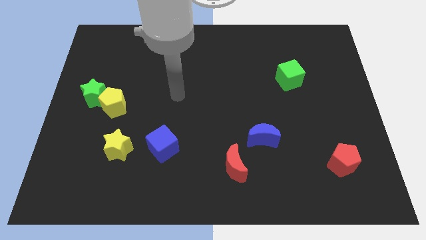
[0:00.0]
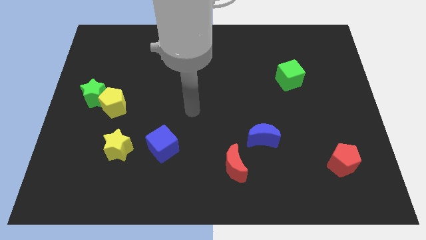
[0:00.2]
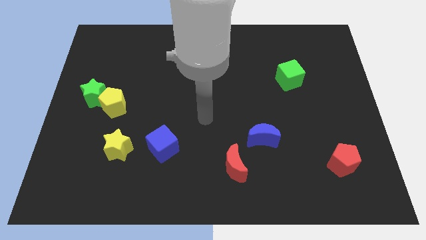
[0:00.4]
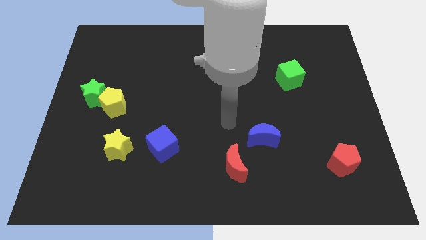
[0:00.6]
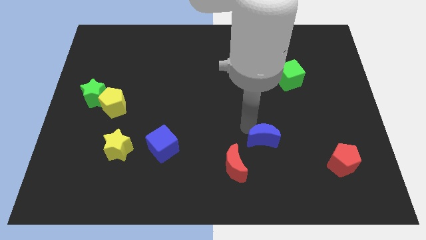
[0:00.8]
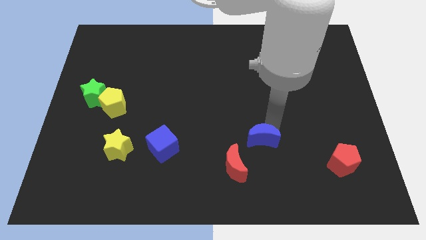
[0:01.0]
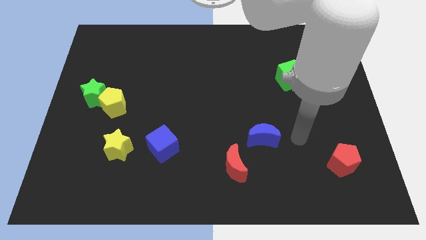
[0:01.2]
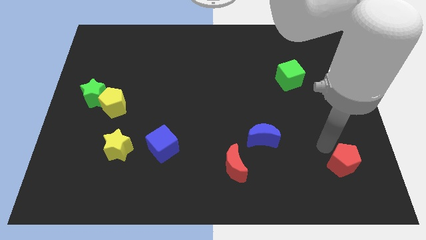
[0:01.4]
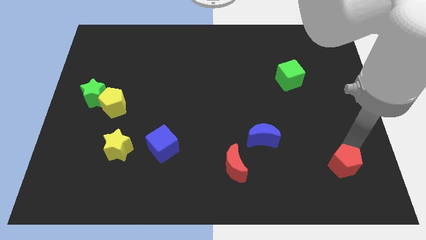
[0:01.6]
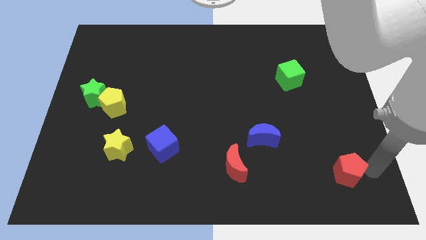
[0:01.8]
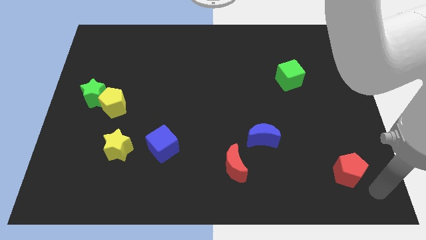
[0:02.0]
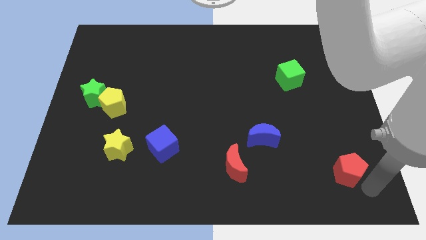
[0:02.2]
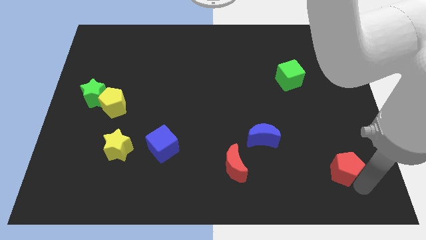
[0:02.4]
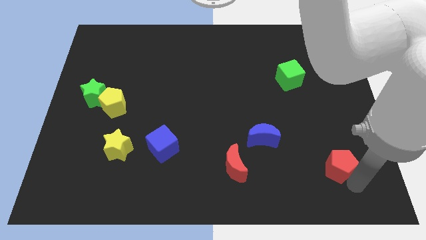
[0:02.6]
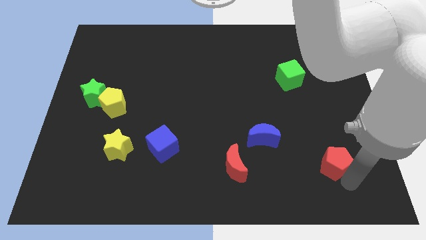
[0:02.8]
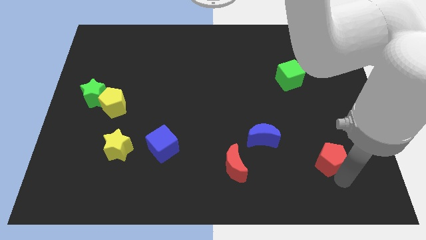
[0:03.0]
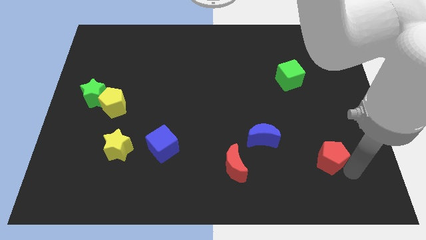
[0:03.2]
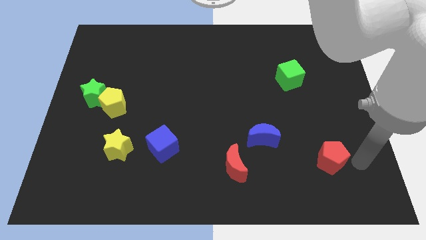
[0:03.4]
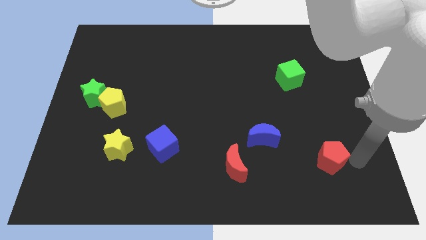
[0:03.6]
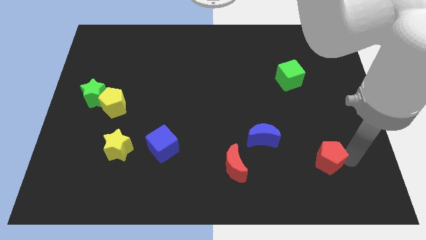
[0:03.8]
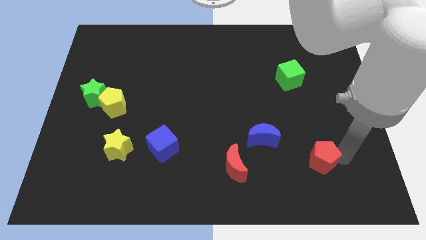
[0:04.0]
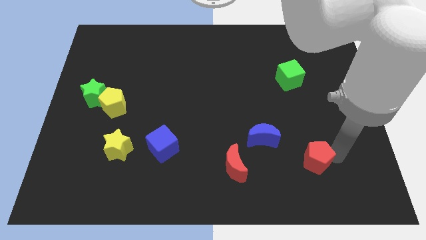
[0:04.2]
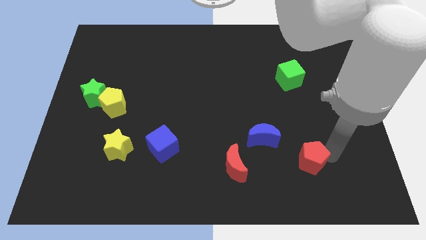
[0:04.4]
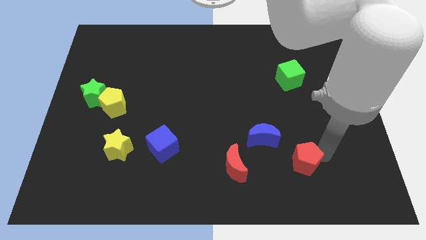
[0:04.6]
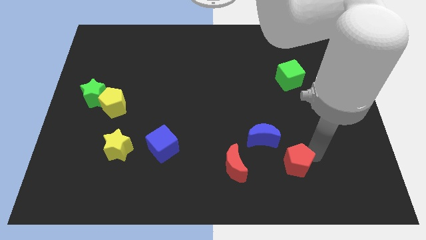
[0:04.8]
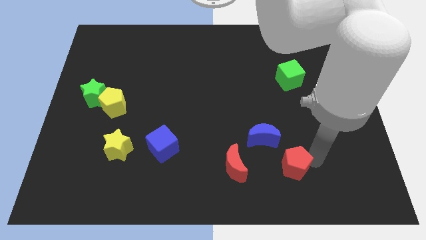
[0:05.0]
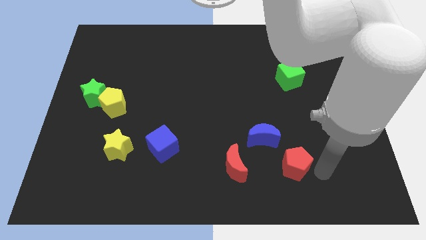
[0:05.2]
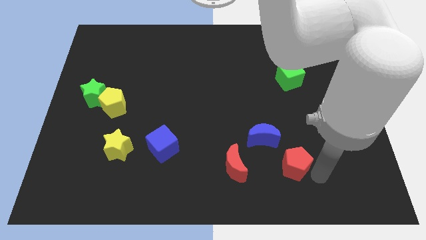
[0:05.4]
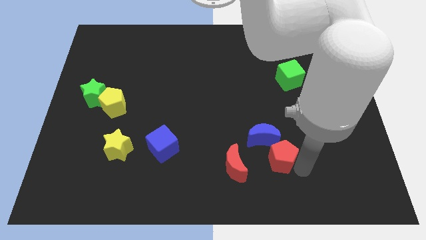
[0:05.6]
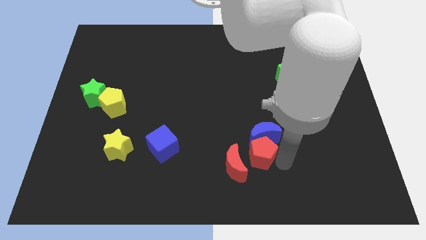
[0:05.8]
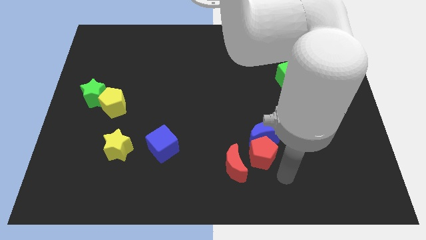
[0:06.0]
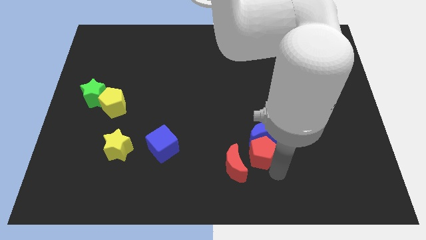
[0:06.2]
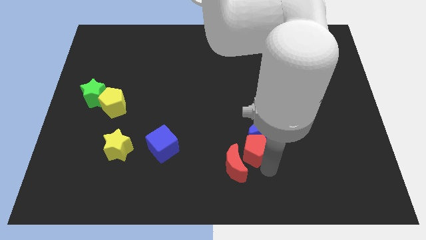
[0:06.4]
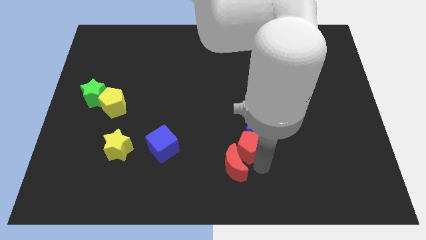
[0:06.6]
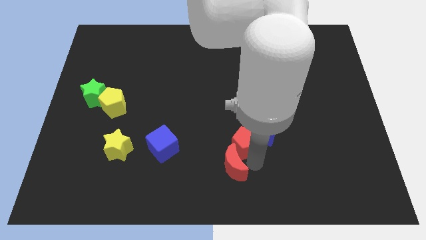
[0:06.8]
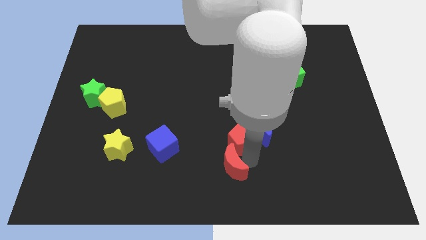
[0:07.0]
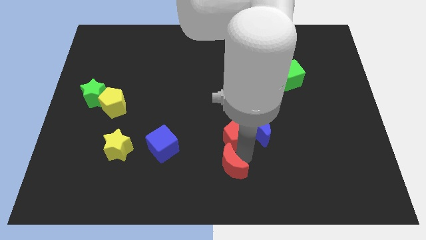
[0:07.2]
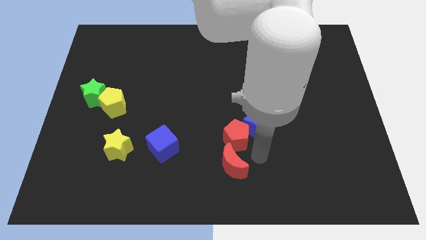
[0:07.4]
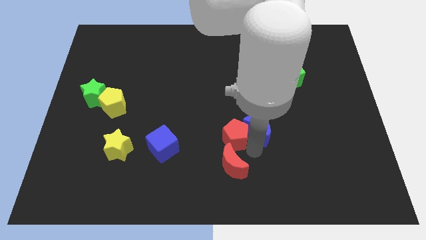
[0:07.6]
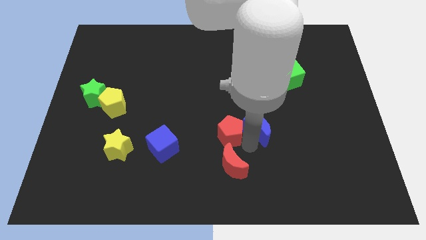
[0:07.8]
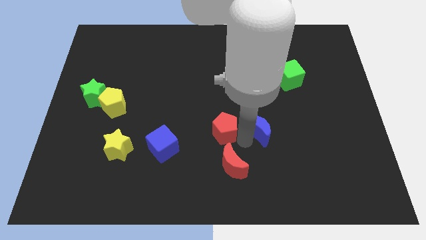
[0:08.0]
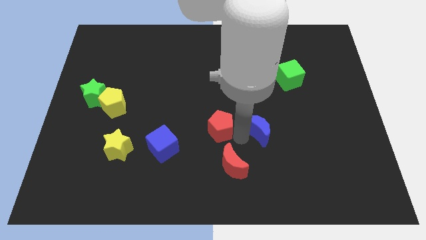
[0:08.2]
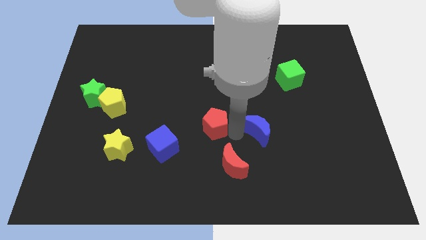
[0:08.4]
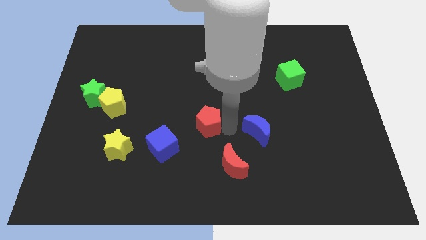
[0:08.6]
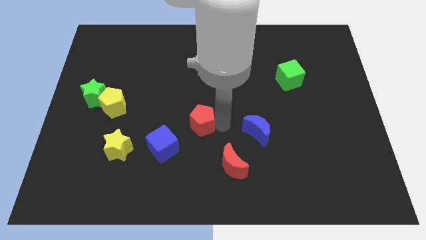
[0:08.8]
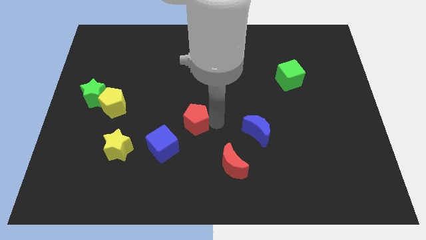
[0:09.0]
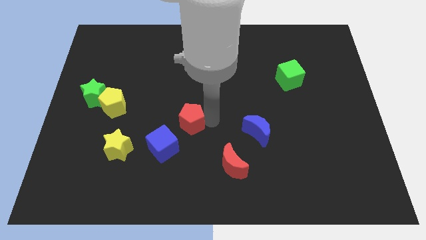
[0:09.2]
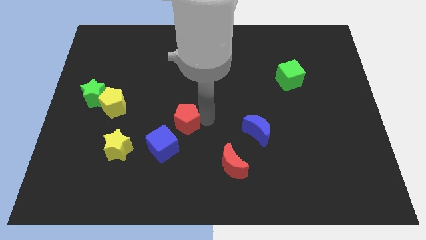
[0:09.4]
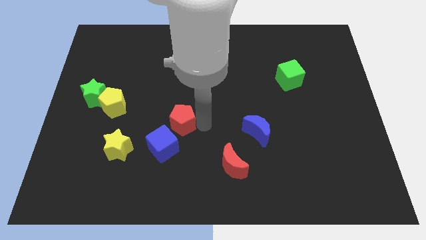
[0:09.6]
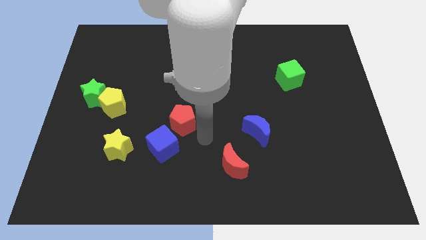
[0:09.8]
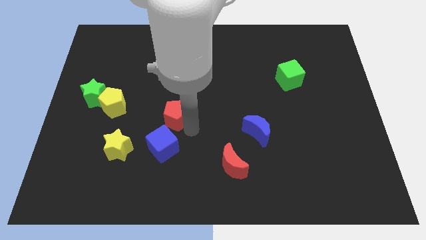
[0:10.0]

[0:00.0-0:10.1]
slide the red pentagon right of the yellow pentagon

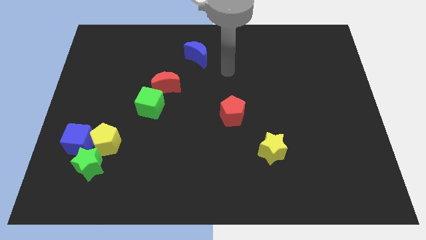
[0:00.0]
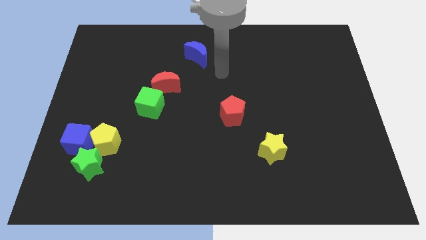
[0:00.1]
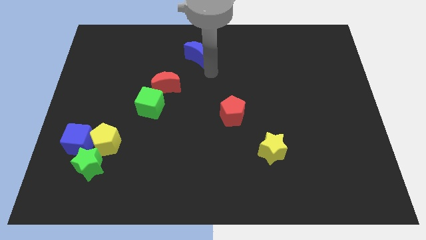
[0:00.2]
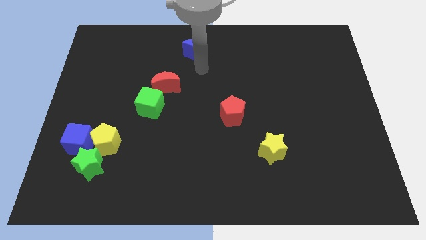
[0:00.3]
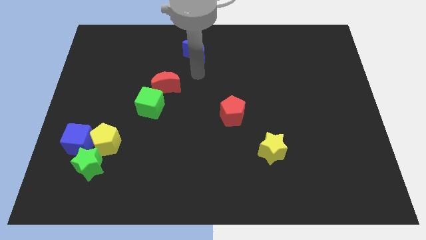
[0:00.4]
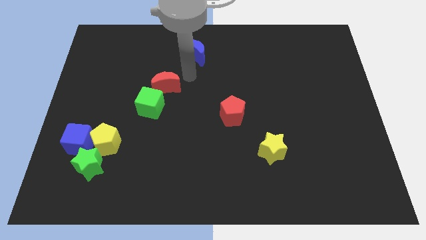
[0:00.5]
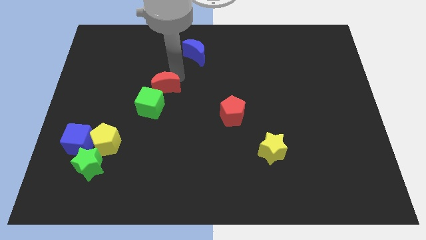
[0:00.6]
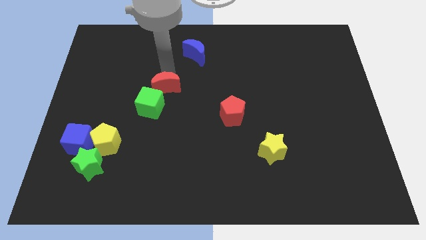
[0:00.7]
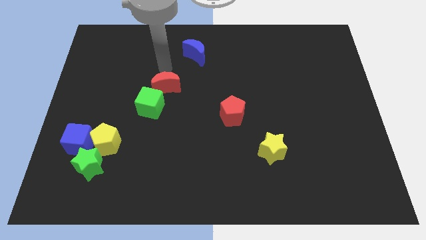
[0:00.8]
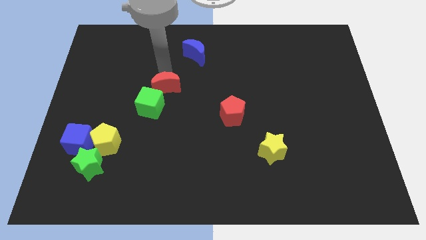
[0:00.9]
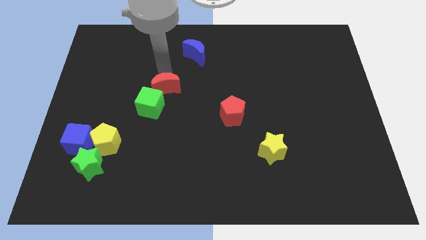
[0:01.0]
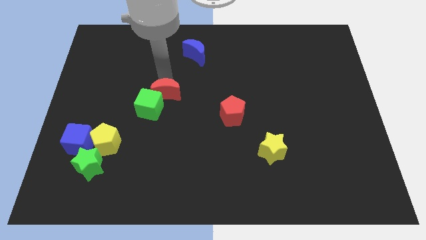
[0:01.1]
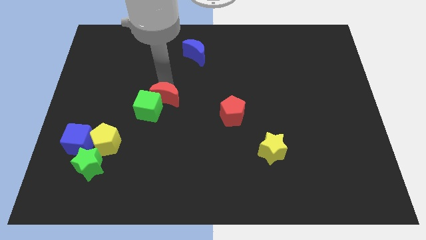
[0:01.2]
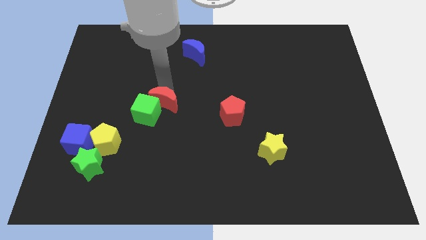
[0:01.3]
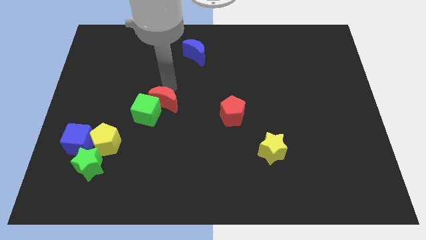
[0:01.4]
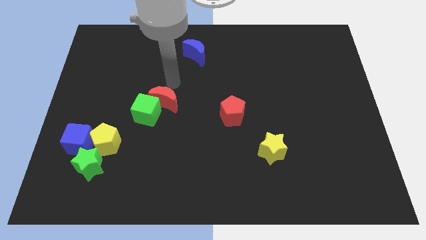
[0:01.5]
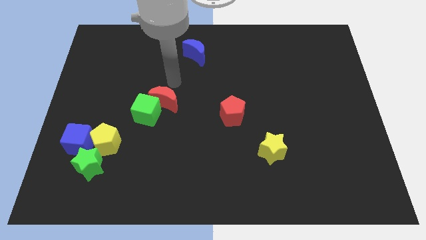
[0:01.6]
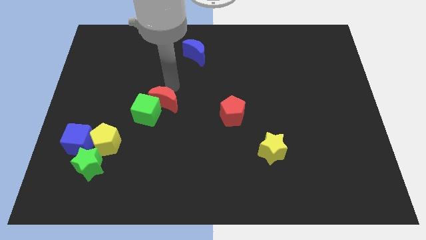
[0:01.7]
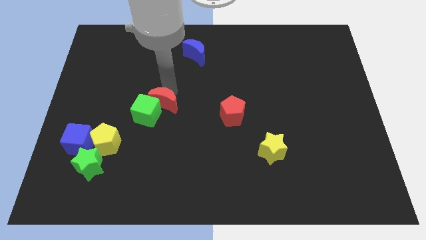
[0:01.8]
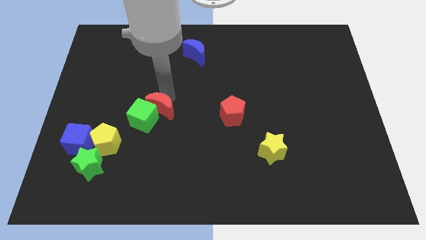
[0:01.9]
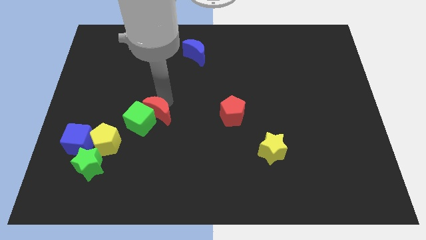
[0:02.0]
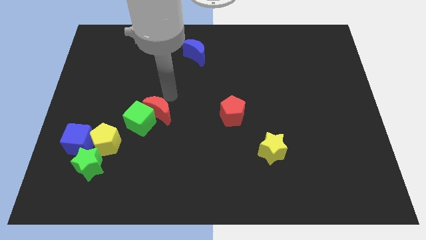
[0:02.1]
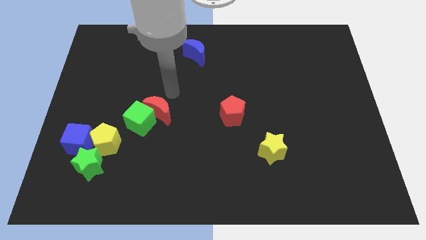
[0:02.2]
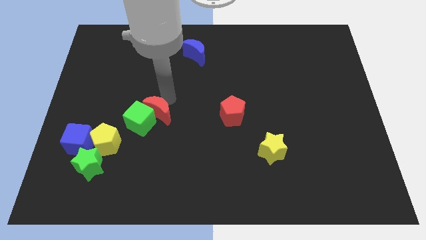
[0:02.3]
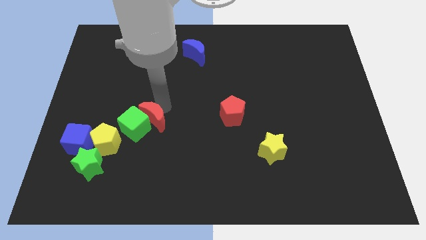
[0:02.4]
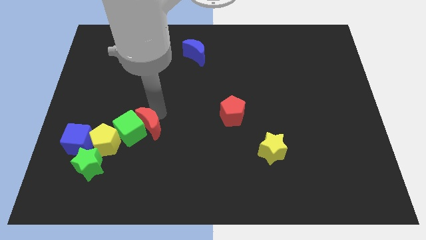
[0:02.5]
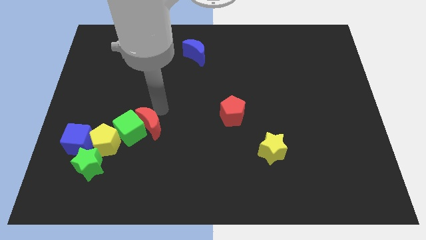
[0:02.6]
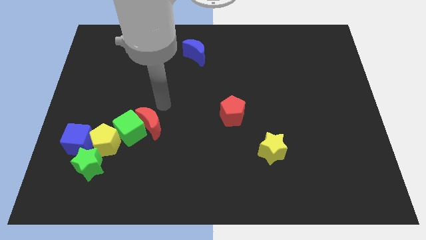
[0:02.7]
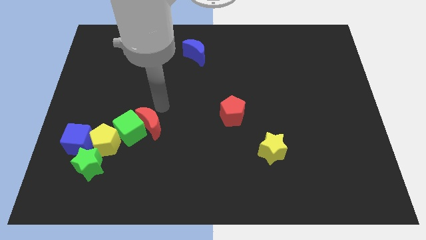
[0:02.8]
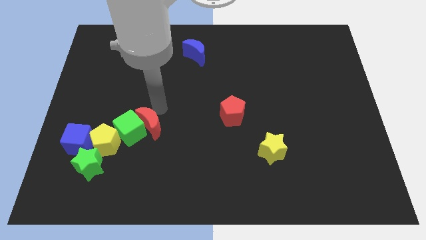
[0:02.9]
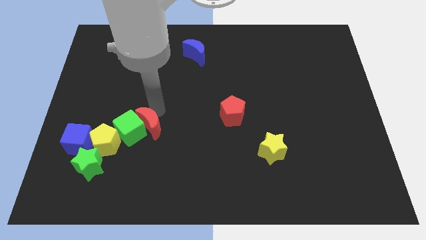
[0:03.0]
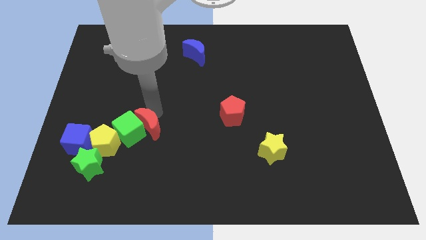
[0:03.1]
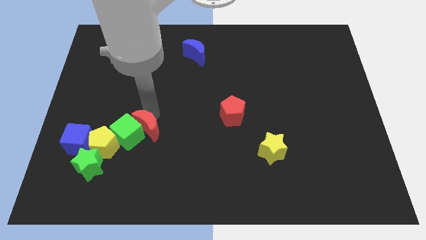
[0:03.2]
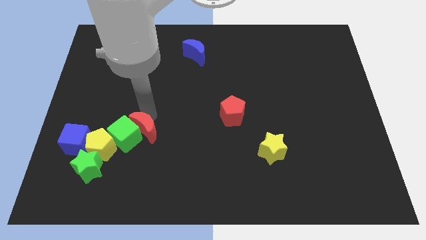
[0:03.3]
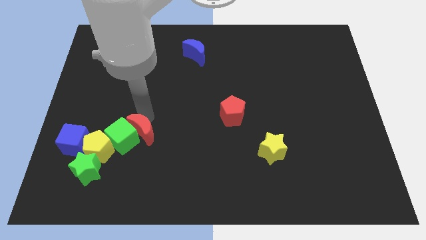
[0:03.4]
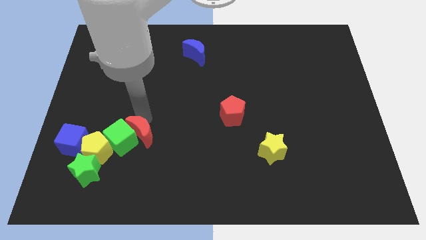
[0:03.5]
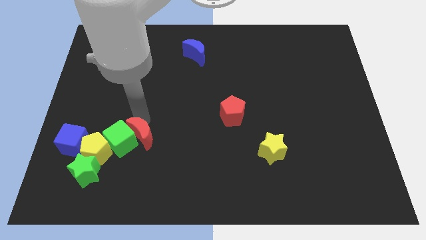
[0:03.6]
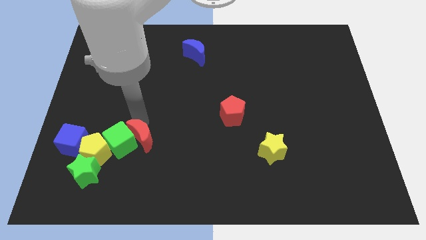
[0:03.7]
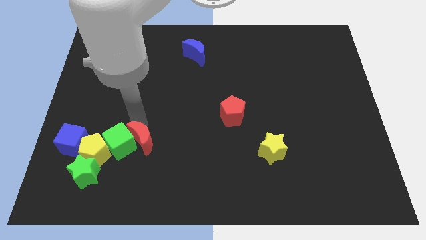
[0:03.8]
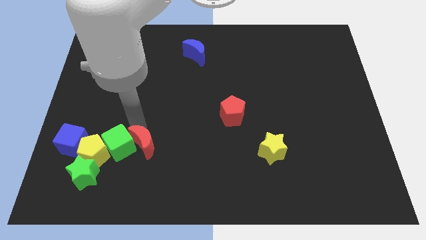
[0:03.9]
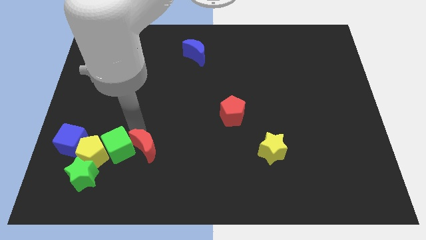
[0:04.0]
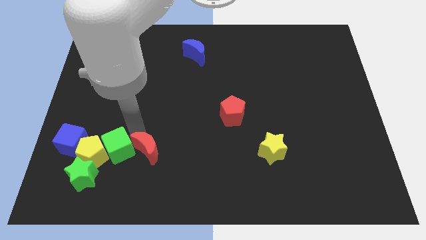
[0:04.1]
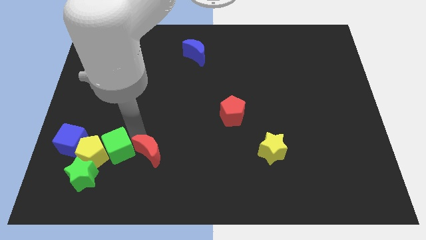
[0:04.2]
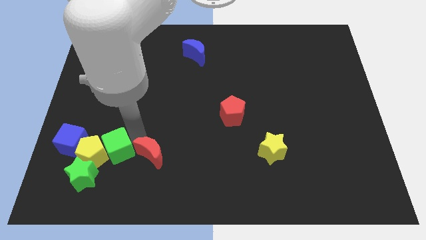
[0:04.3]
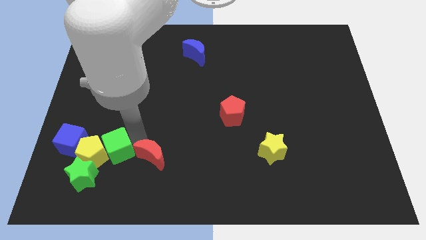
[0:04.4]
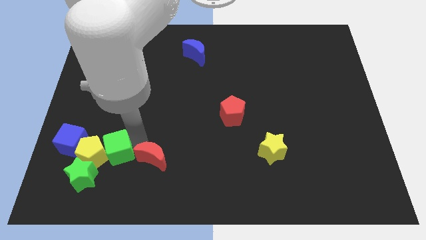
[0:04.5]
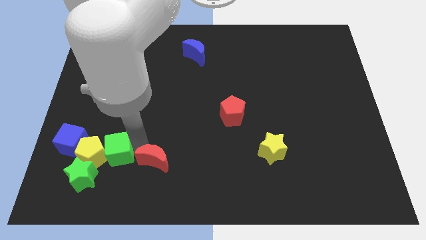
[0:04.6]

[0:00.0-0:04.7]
put the red moon just right of the green star
